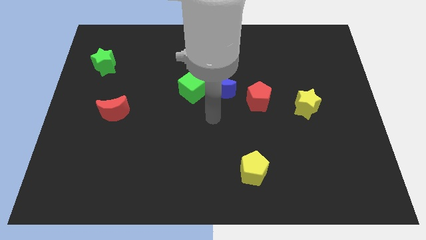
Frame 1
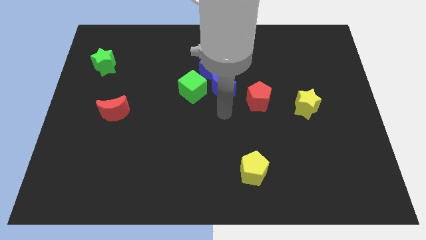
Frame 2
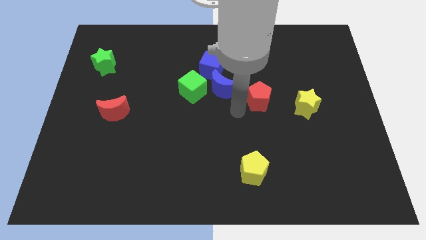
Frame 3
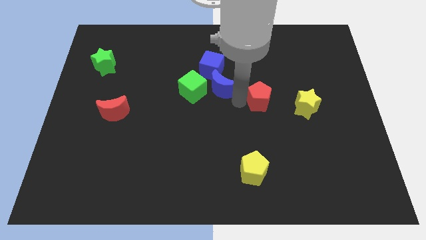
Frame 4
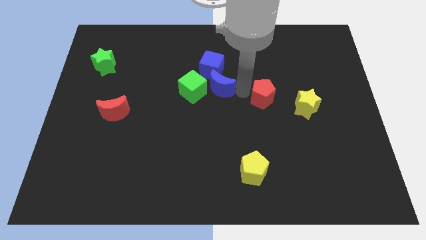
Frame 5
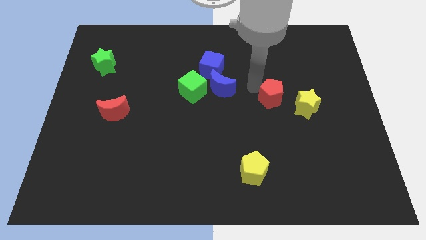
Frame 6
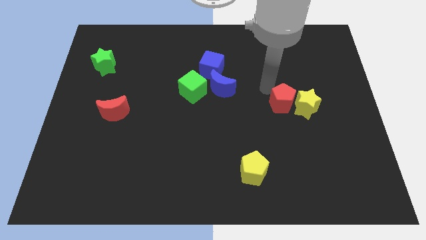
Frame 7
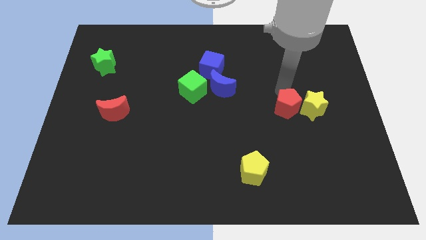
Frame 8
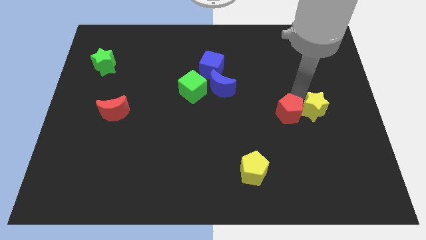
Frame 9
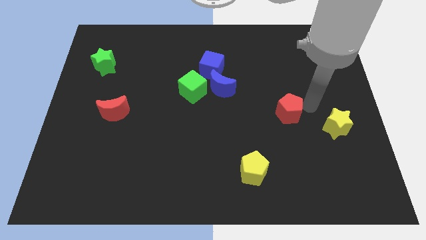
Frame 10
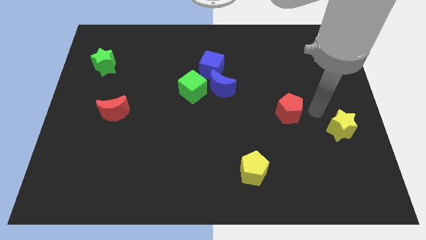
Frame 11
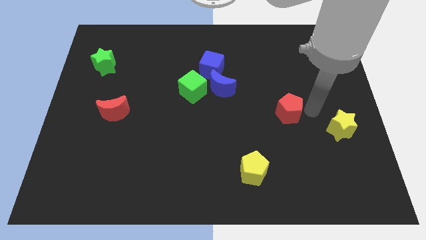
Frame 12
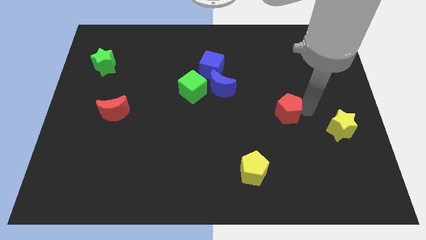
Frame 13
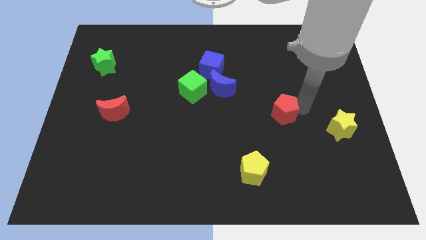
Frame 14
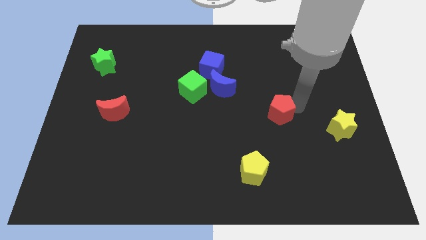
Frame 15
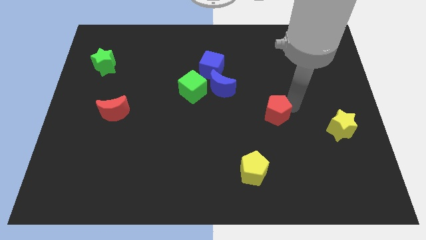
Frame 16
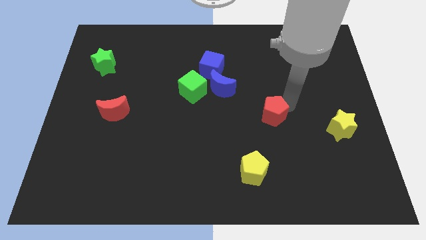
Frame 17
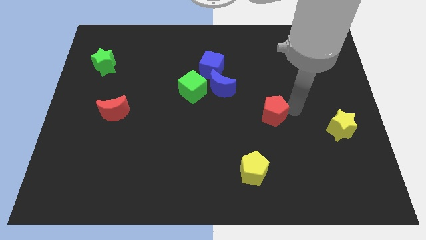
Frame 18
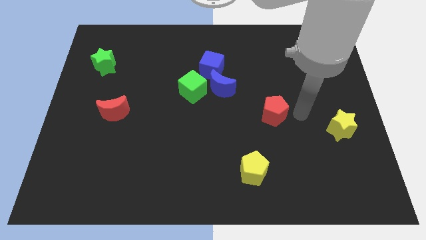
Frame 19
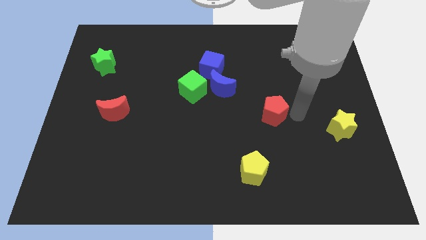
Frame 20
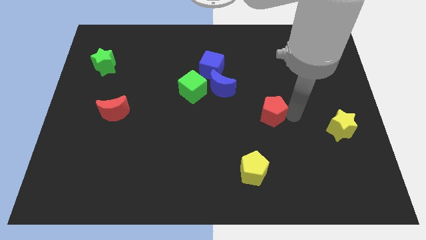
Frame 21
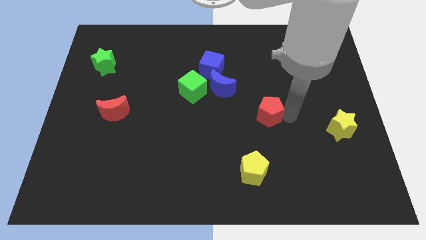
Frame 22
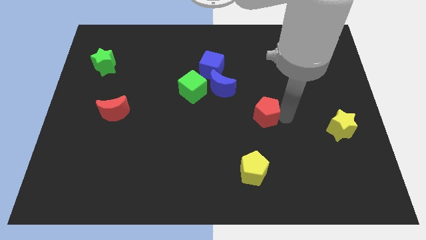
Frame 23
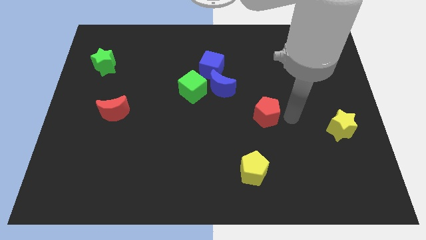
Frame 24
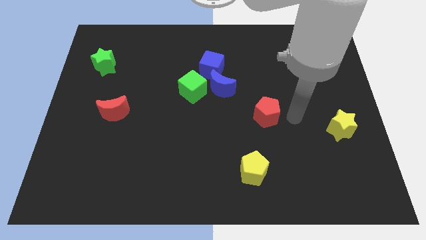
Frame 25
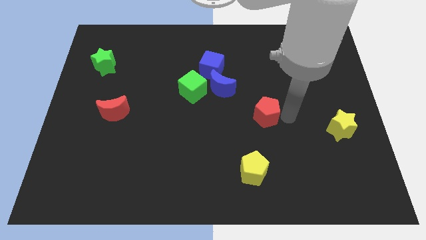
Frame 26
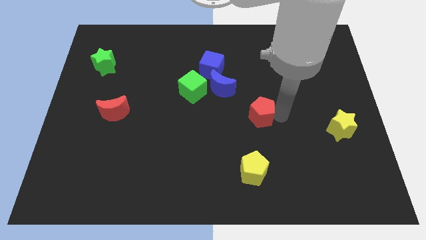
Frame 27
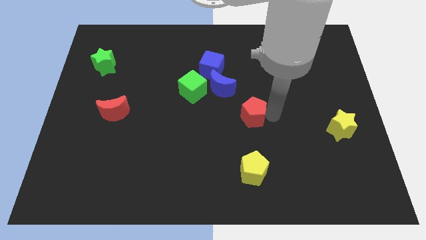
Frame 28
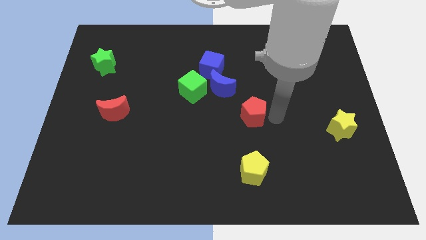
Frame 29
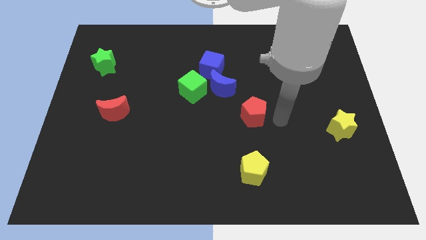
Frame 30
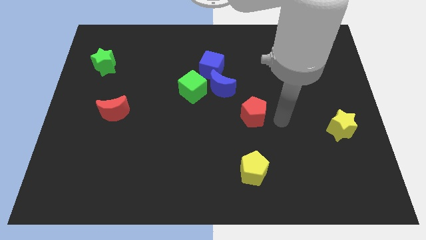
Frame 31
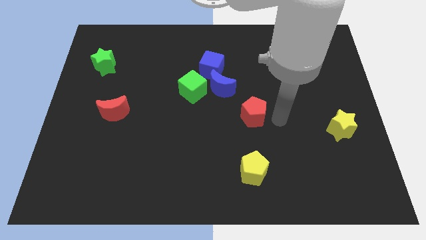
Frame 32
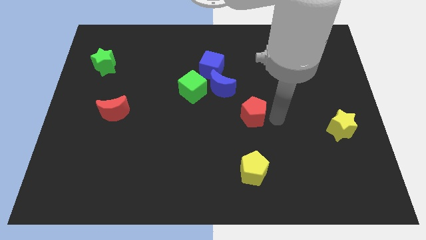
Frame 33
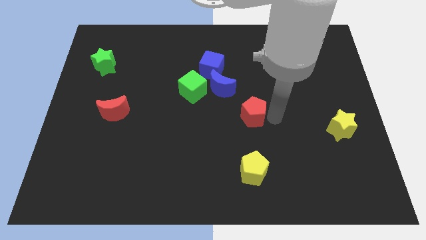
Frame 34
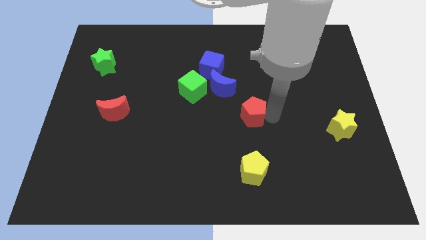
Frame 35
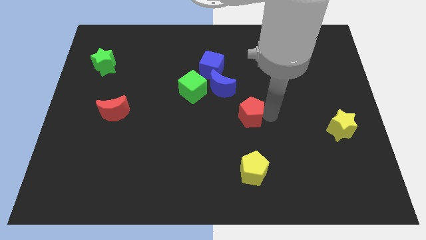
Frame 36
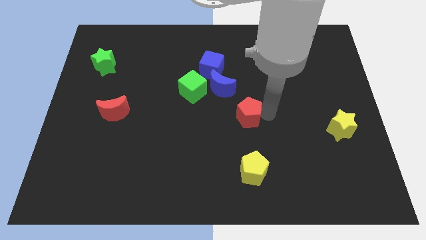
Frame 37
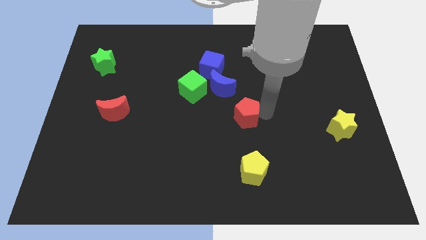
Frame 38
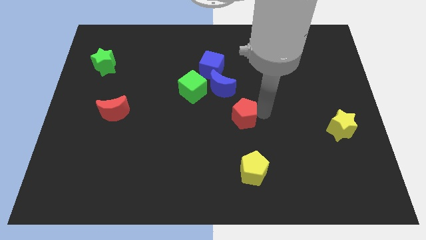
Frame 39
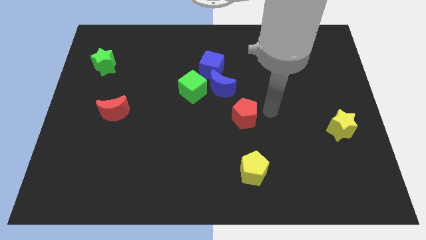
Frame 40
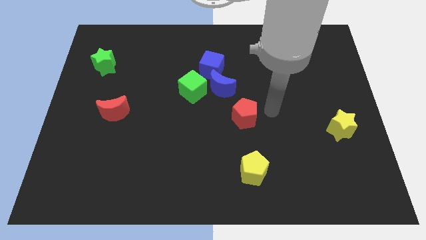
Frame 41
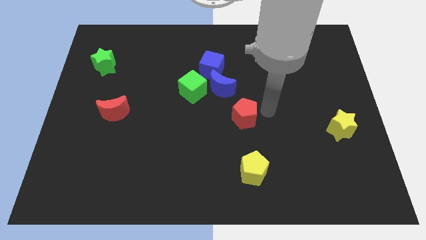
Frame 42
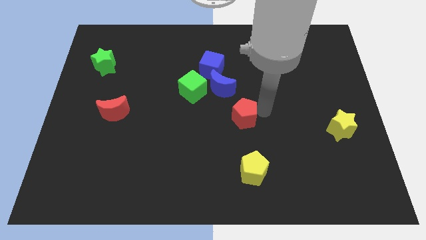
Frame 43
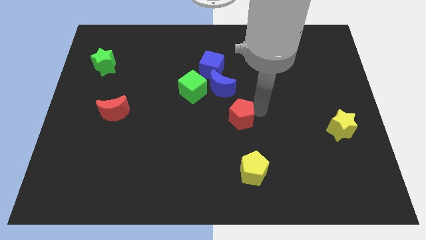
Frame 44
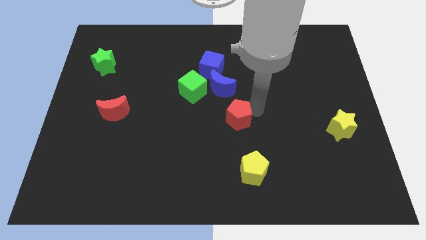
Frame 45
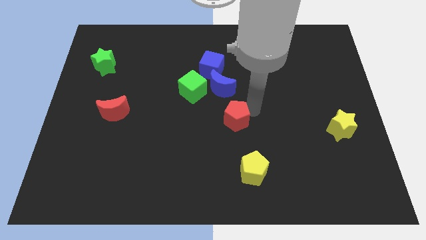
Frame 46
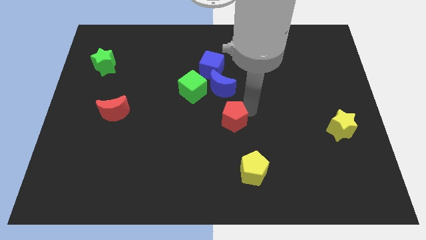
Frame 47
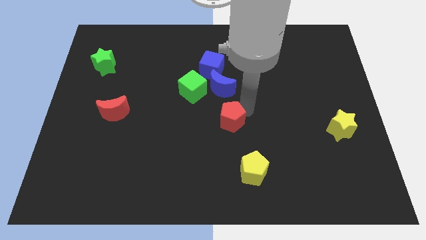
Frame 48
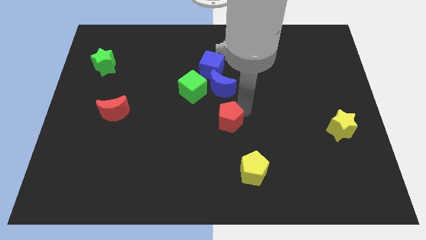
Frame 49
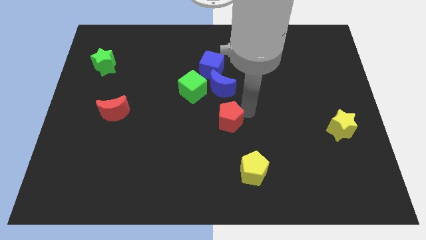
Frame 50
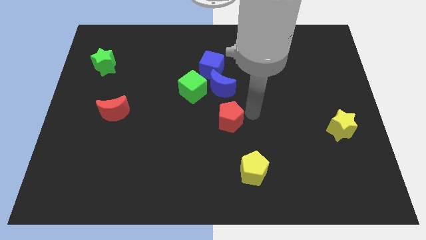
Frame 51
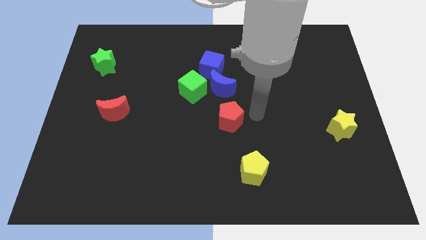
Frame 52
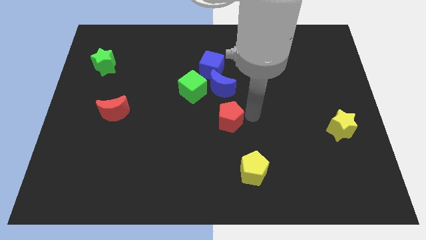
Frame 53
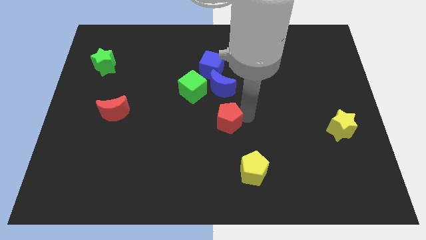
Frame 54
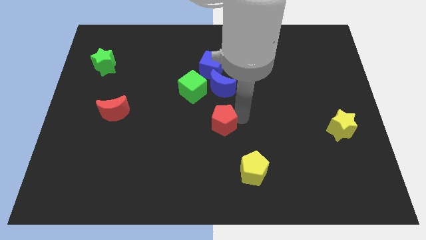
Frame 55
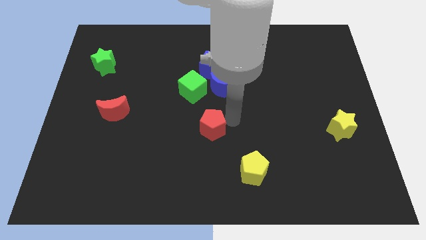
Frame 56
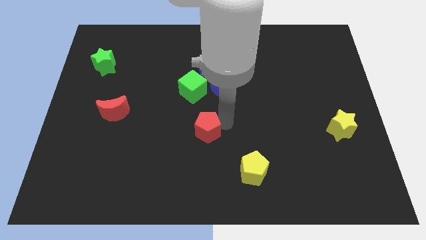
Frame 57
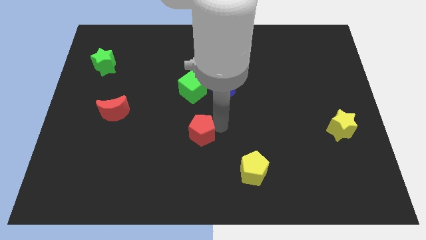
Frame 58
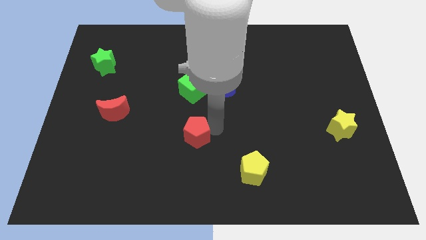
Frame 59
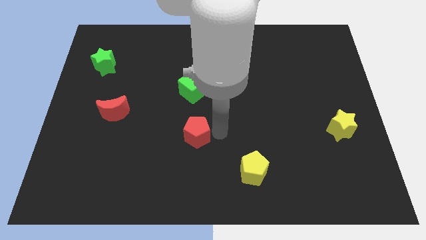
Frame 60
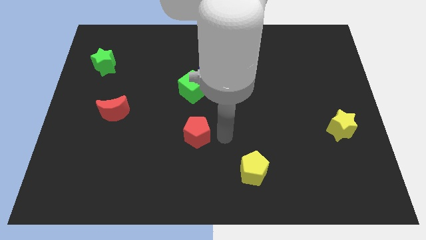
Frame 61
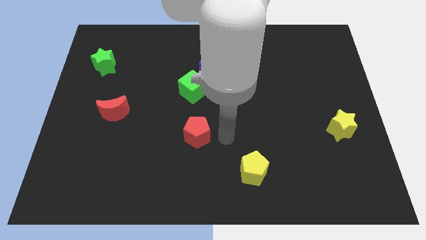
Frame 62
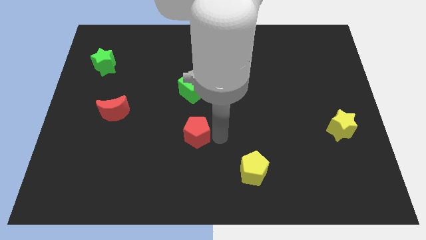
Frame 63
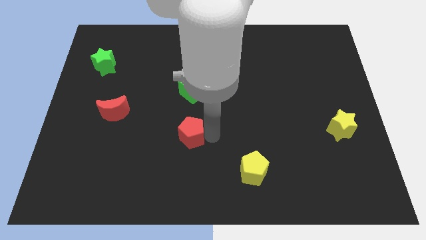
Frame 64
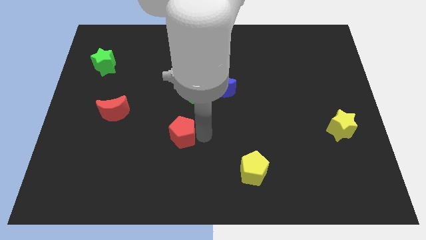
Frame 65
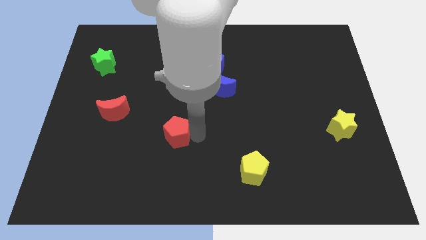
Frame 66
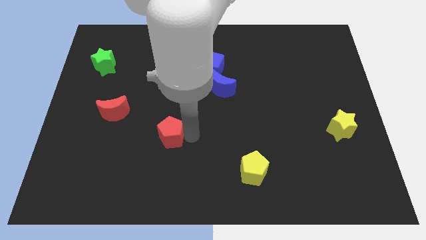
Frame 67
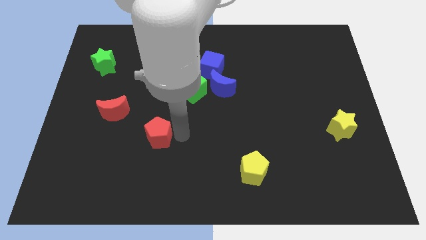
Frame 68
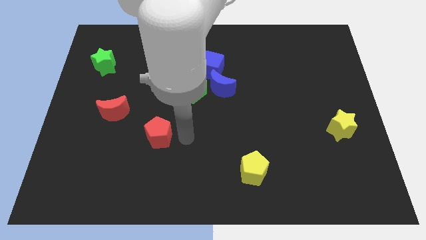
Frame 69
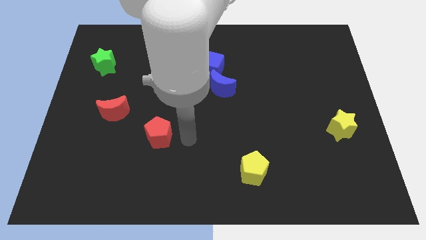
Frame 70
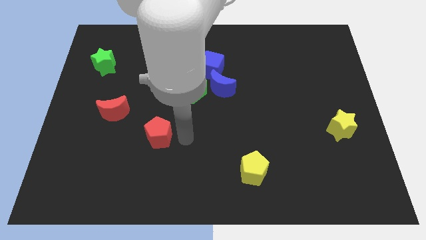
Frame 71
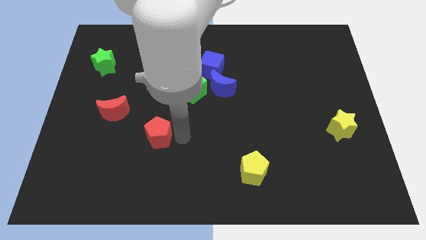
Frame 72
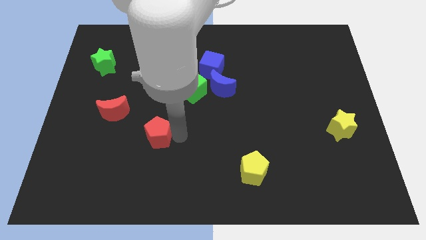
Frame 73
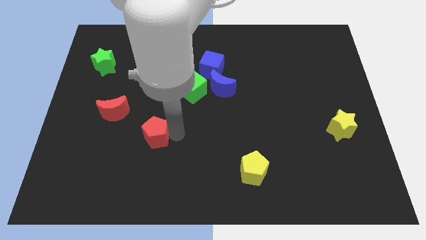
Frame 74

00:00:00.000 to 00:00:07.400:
move the red pentagon to the bottom right side of the red moon
